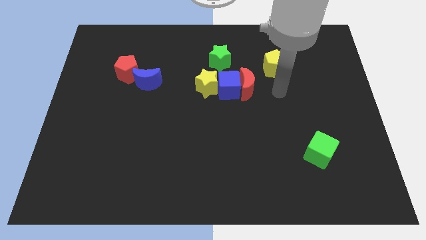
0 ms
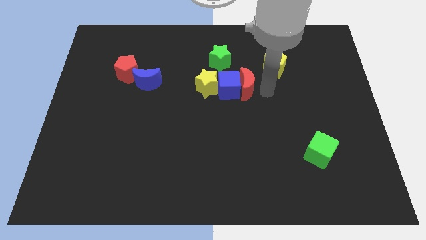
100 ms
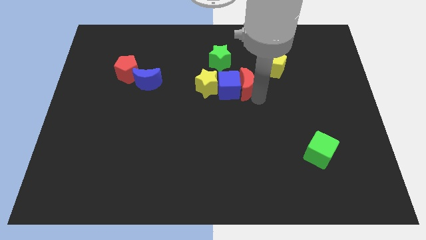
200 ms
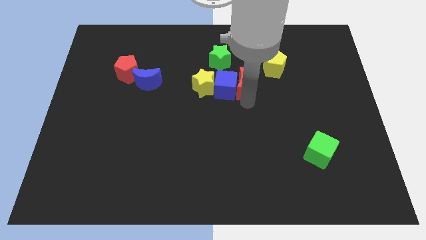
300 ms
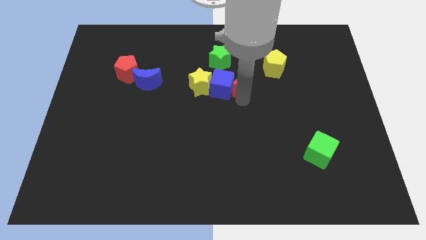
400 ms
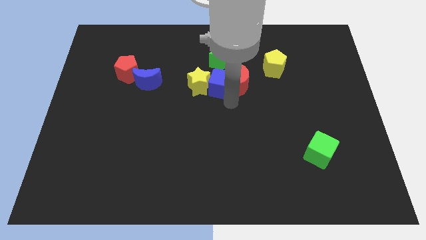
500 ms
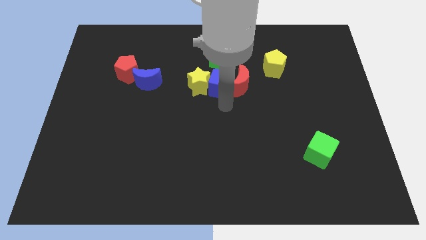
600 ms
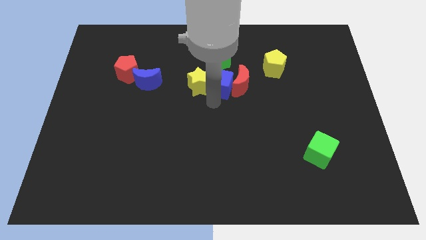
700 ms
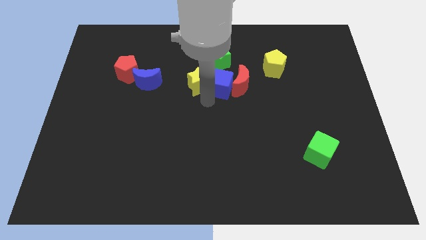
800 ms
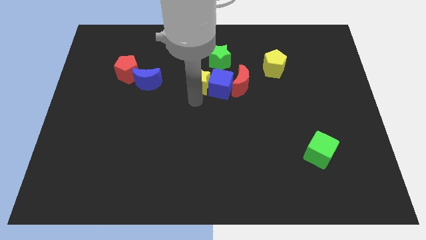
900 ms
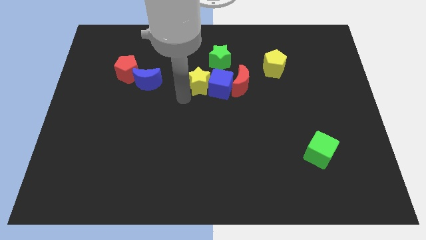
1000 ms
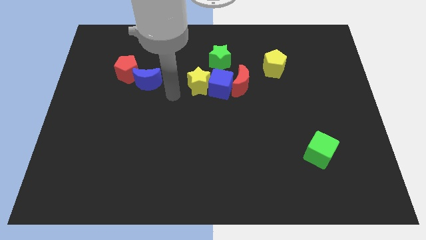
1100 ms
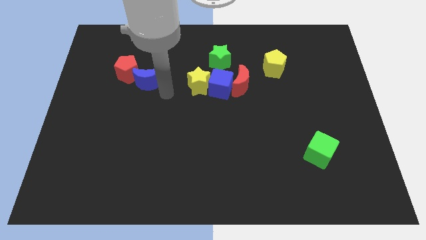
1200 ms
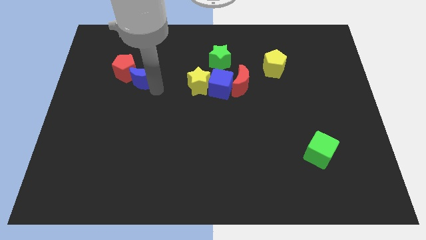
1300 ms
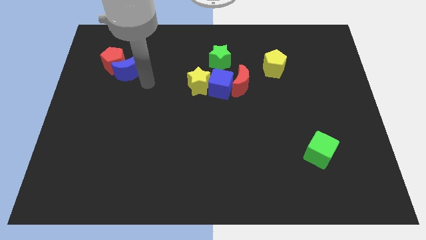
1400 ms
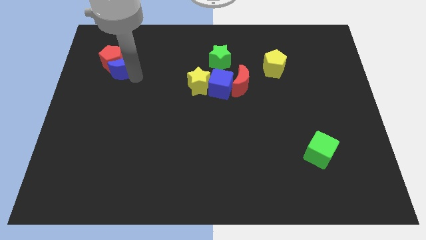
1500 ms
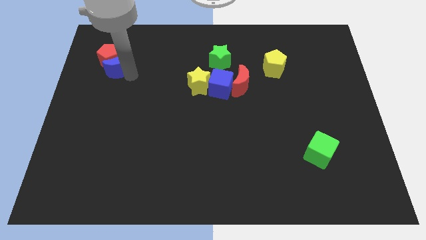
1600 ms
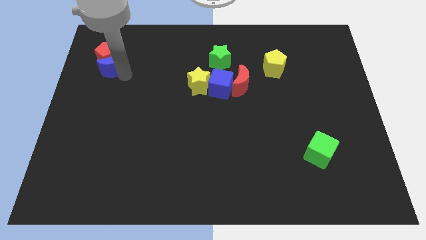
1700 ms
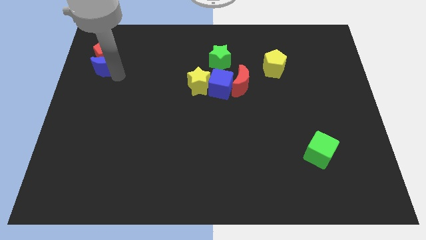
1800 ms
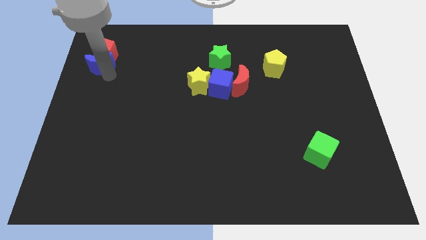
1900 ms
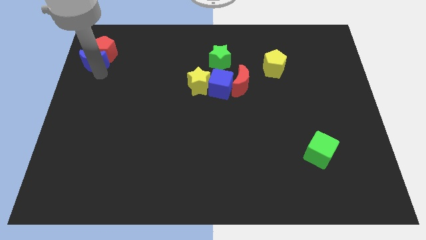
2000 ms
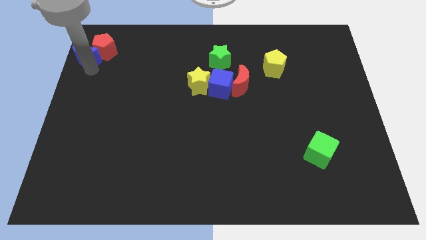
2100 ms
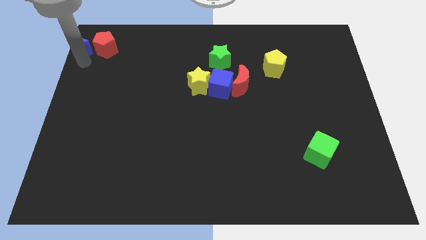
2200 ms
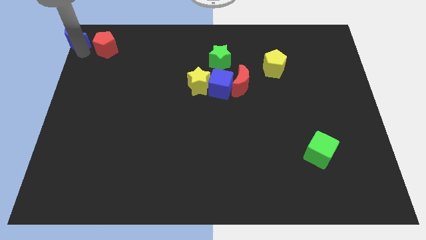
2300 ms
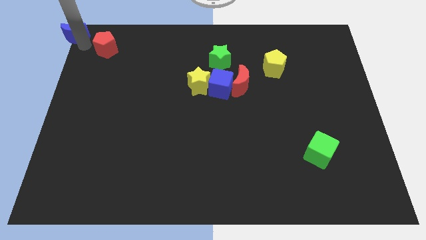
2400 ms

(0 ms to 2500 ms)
move the red pentagon away from the blue moon

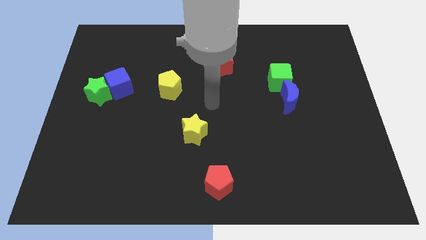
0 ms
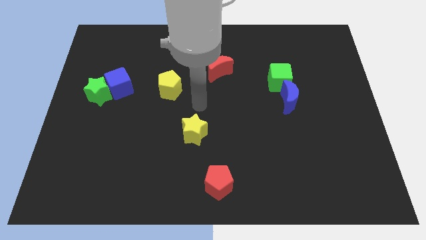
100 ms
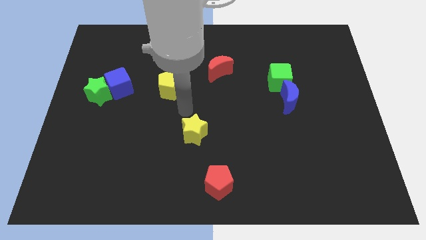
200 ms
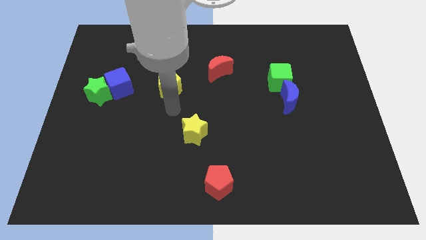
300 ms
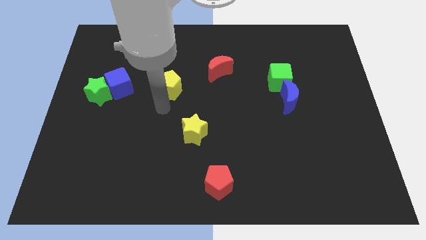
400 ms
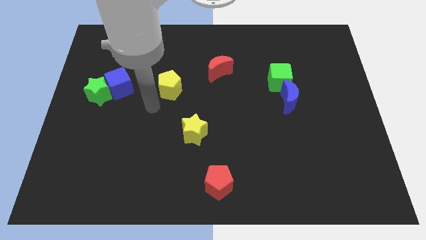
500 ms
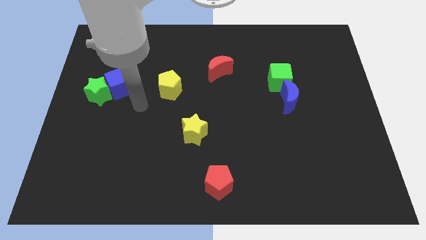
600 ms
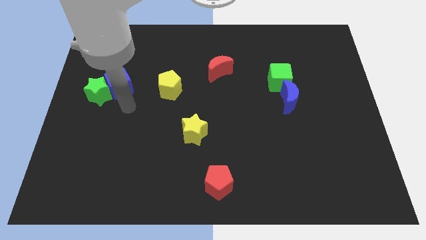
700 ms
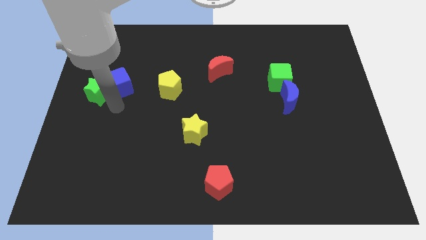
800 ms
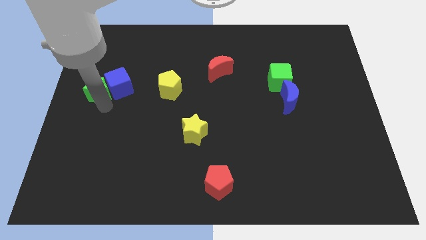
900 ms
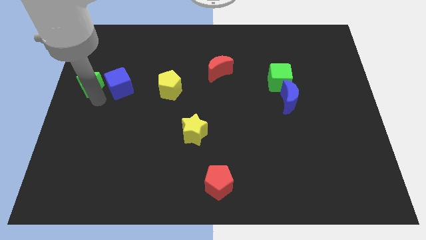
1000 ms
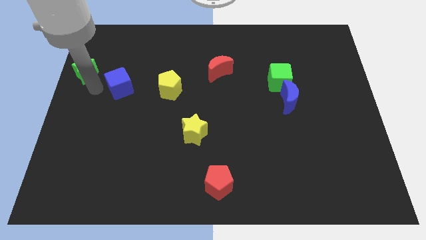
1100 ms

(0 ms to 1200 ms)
separate the blue cube from the green star

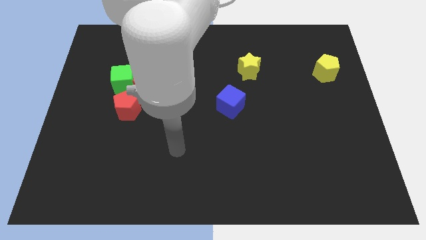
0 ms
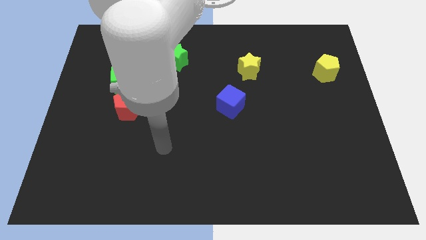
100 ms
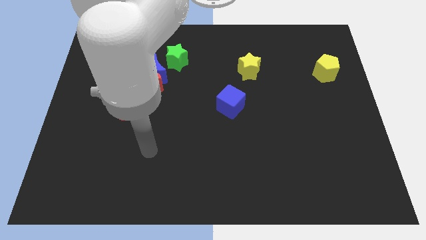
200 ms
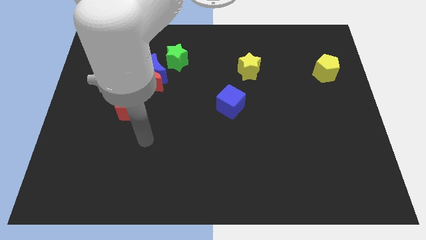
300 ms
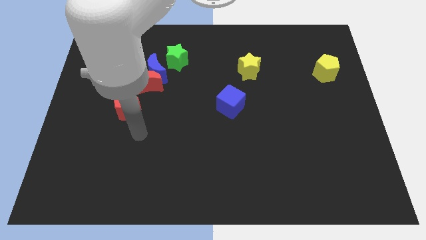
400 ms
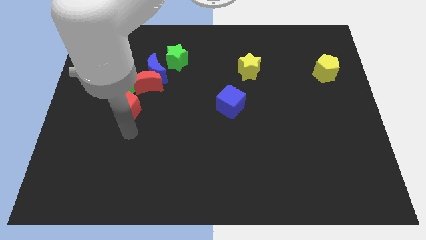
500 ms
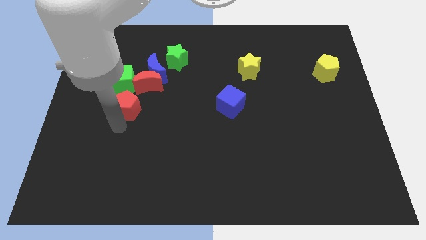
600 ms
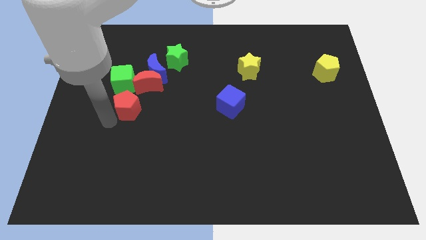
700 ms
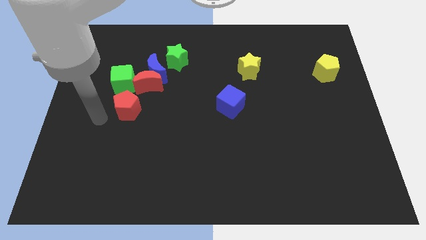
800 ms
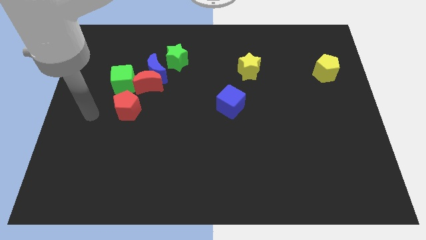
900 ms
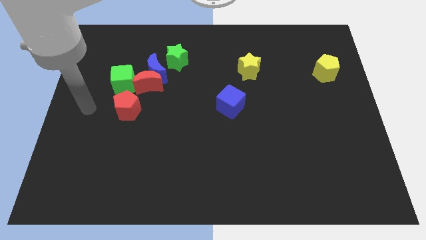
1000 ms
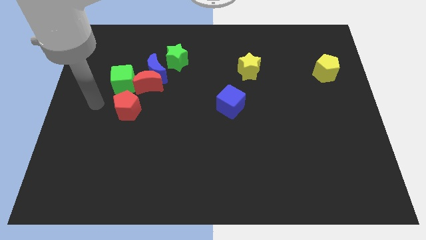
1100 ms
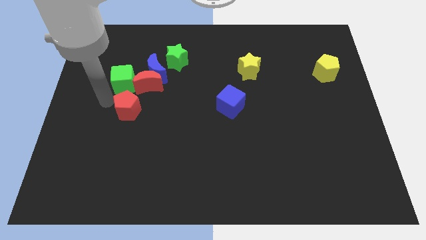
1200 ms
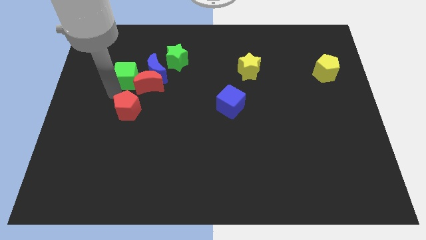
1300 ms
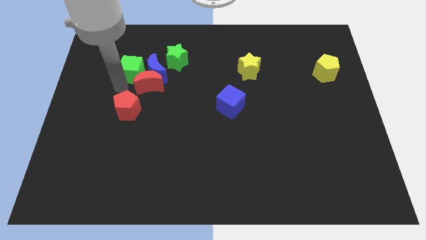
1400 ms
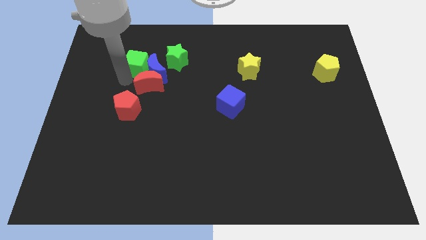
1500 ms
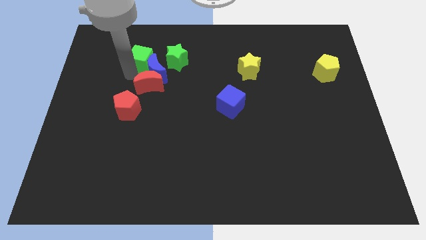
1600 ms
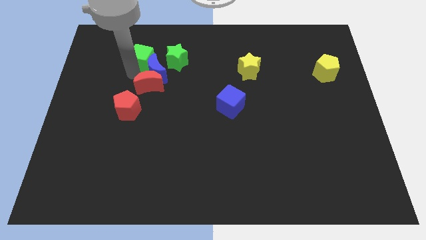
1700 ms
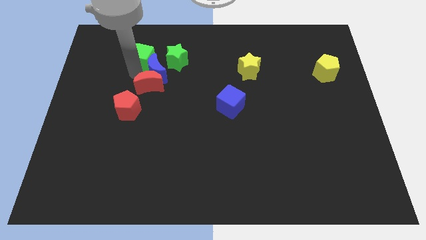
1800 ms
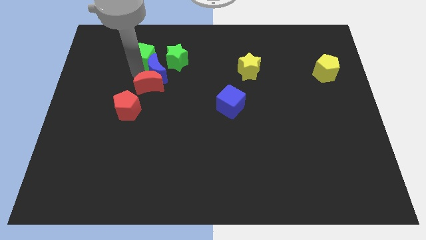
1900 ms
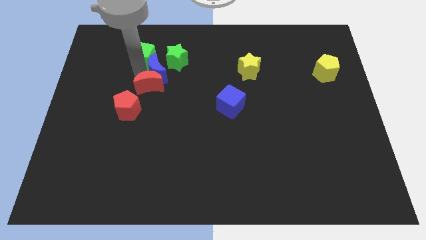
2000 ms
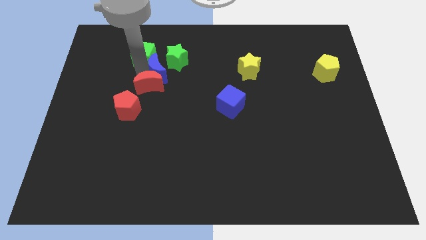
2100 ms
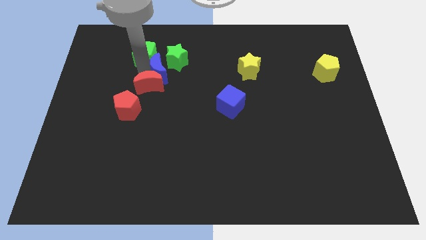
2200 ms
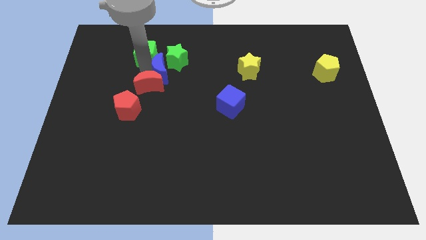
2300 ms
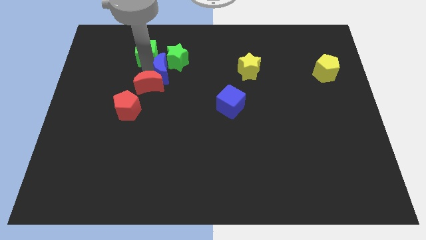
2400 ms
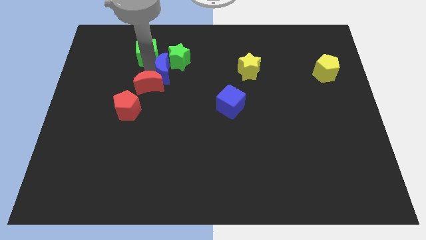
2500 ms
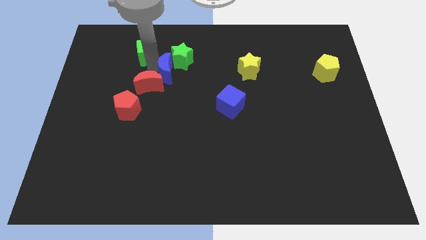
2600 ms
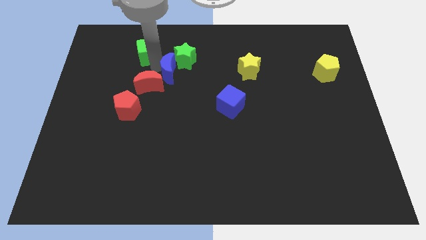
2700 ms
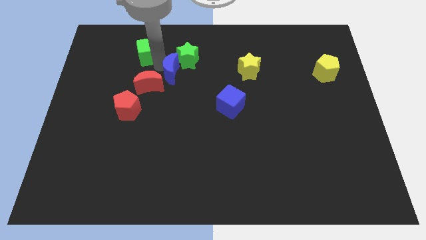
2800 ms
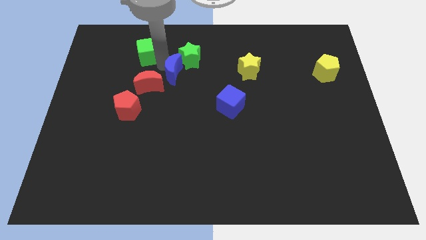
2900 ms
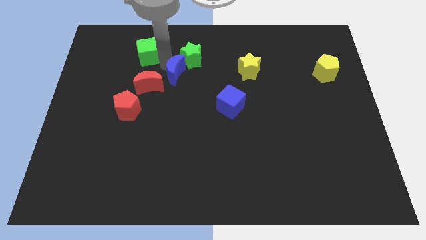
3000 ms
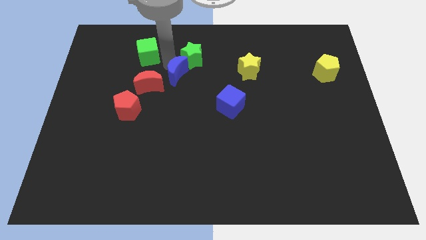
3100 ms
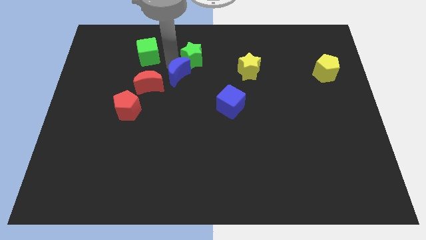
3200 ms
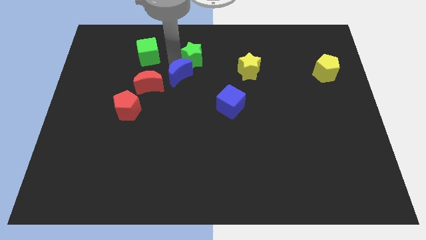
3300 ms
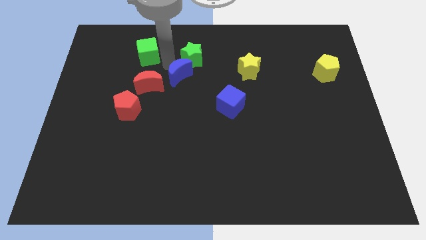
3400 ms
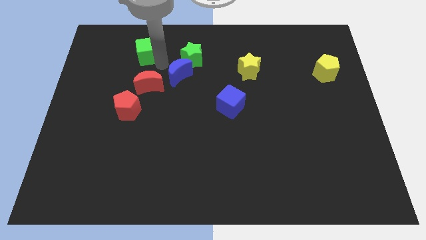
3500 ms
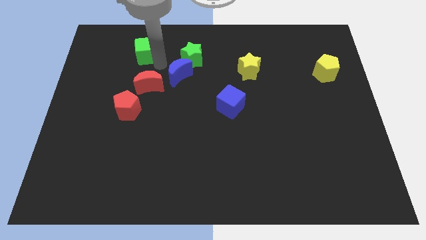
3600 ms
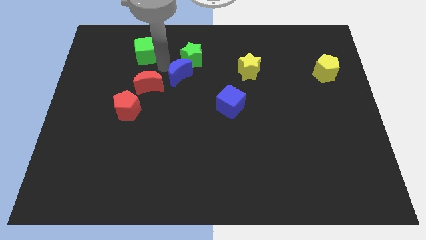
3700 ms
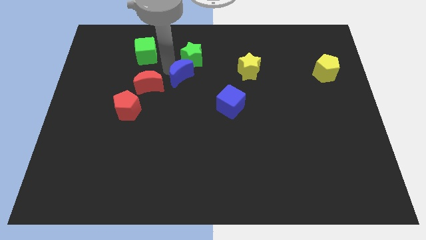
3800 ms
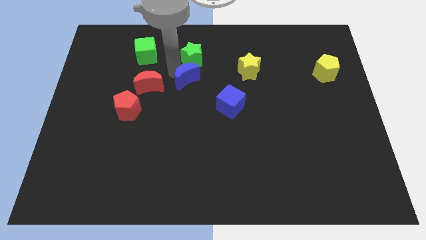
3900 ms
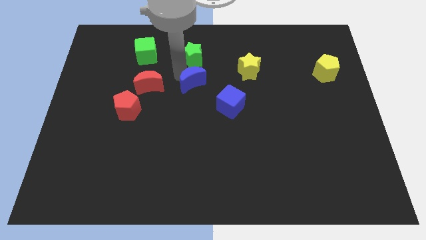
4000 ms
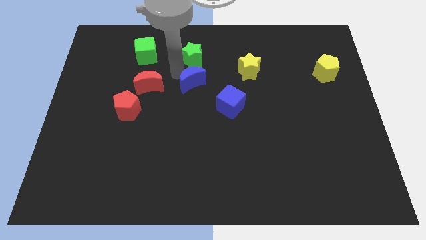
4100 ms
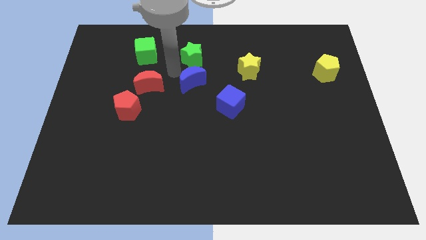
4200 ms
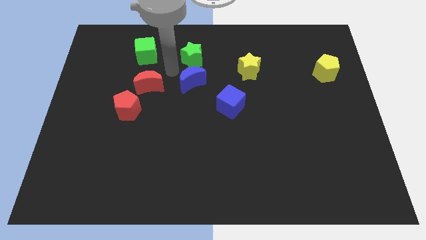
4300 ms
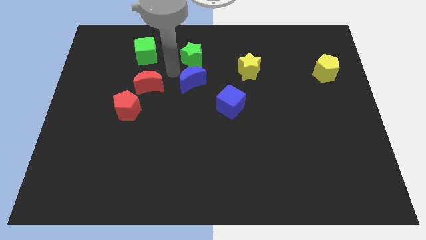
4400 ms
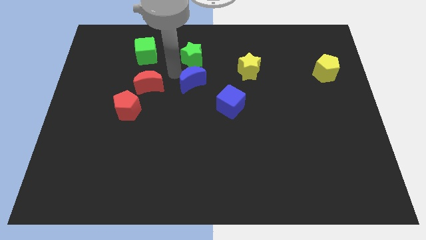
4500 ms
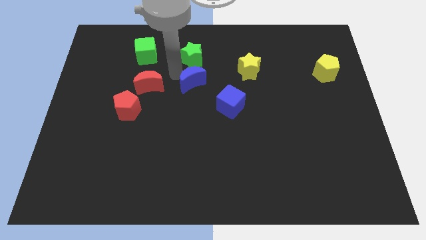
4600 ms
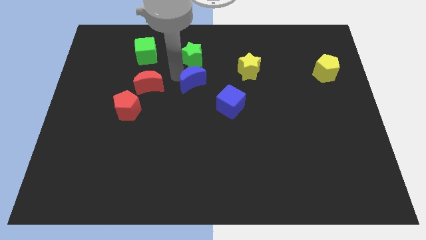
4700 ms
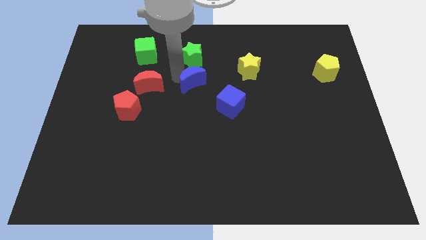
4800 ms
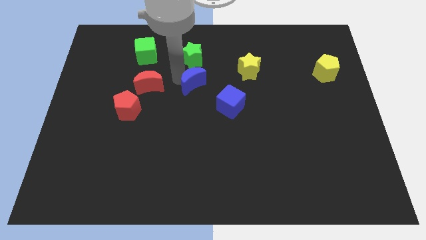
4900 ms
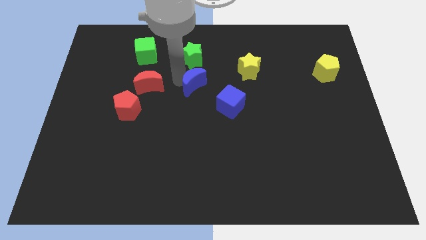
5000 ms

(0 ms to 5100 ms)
separate the blue moon from the group

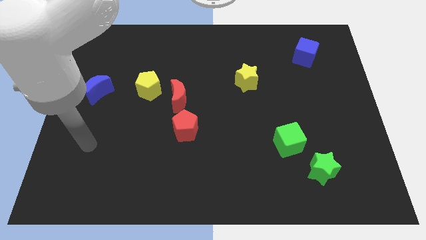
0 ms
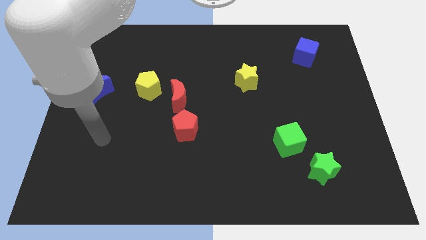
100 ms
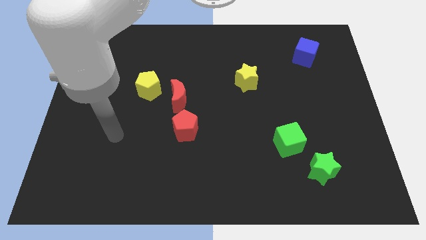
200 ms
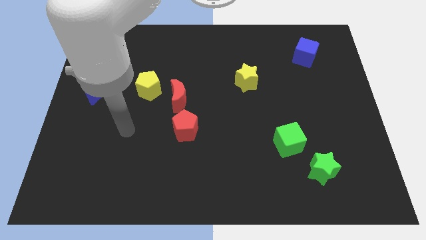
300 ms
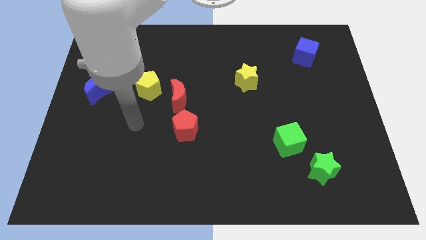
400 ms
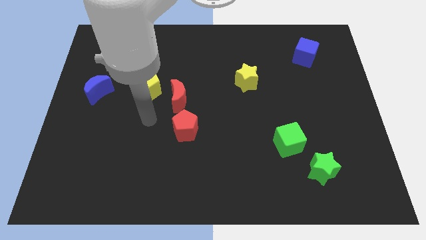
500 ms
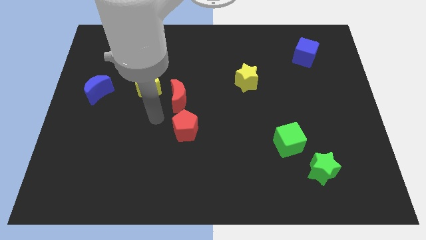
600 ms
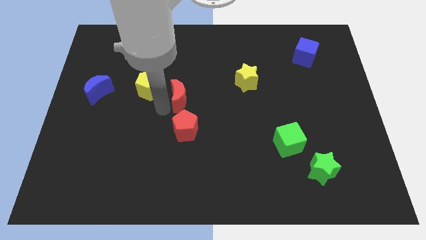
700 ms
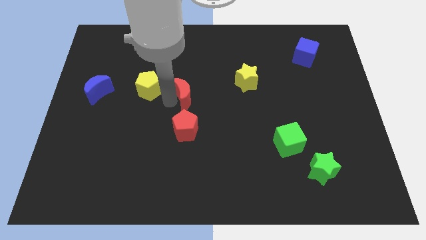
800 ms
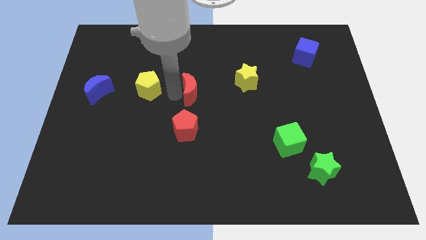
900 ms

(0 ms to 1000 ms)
separate the yellow pentagon from the red moon
